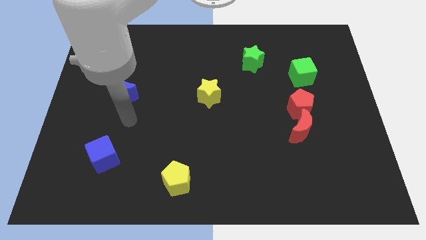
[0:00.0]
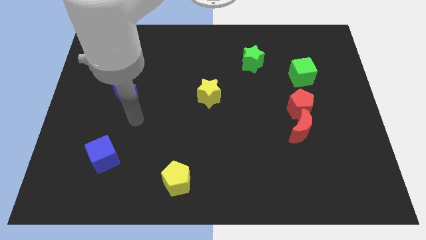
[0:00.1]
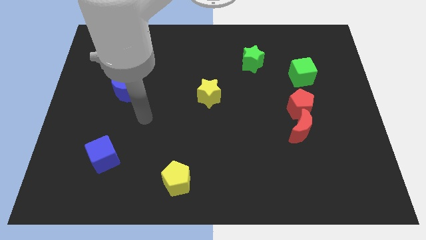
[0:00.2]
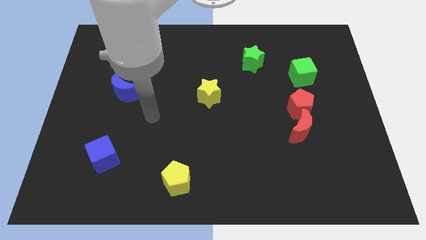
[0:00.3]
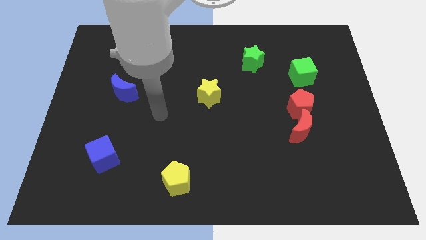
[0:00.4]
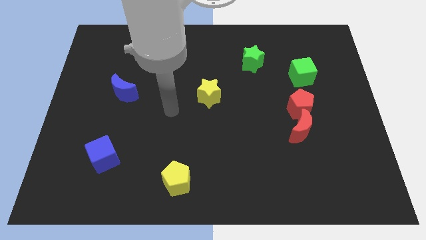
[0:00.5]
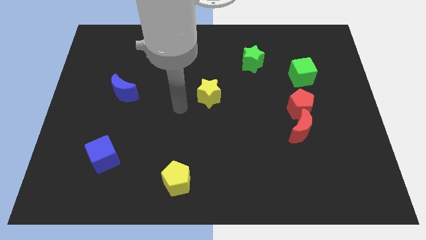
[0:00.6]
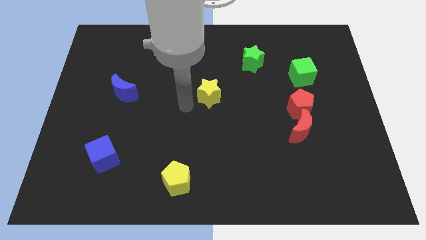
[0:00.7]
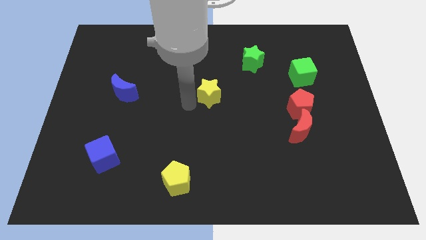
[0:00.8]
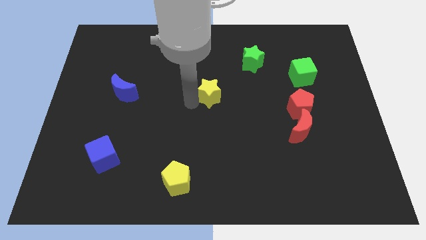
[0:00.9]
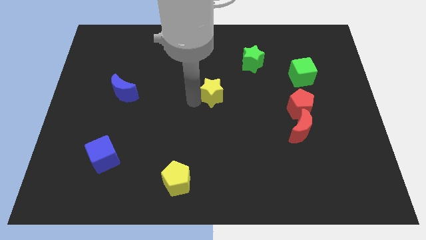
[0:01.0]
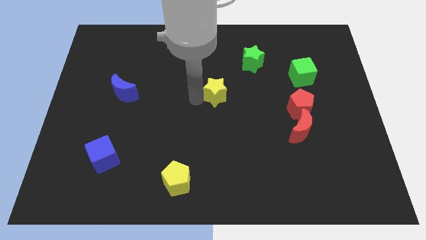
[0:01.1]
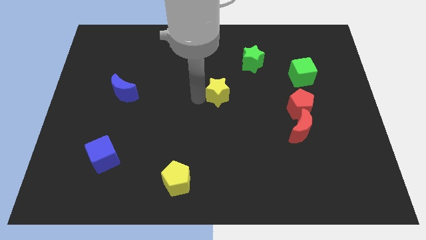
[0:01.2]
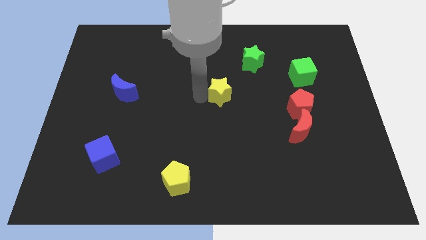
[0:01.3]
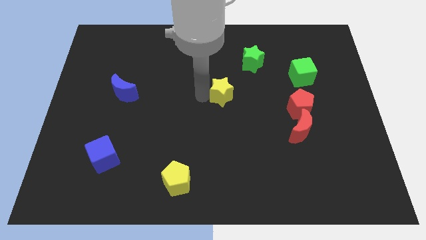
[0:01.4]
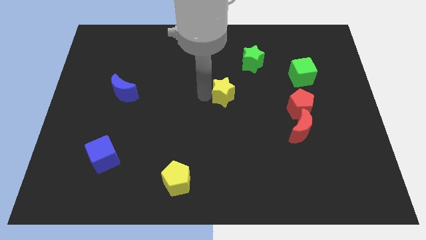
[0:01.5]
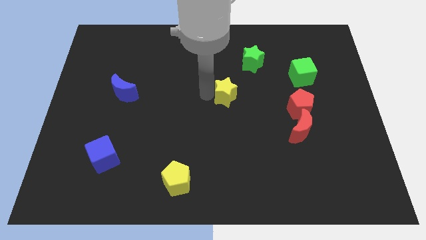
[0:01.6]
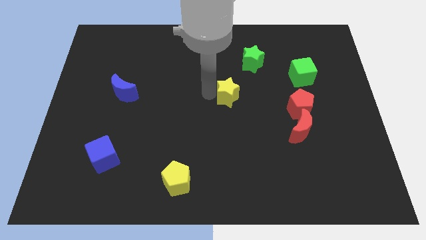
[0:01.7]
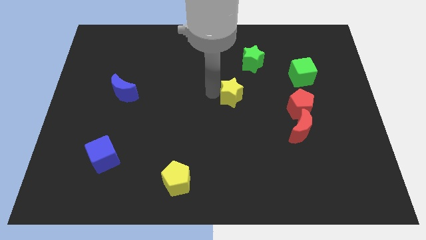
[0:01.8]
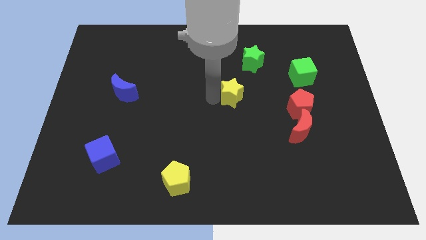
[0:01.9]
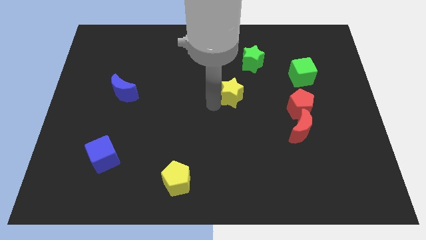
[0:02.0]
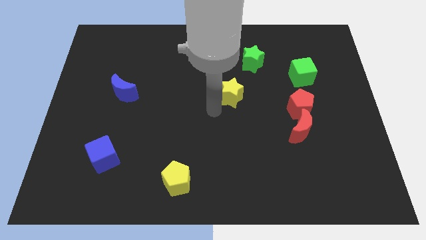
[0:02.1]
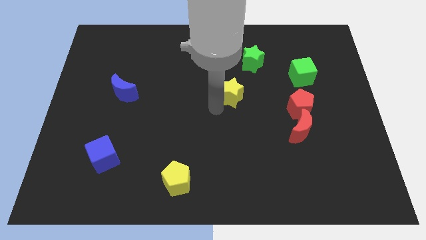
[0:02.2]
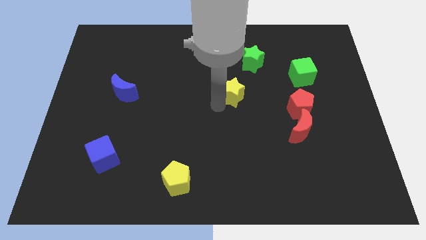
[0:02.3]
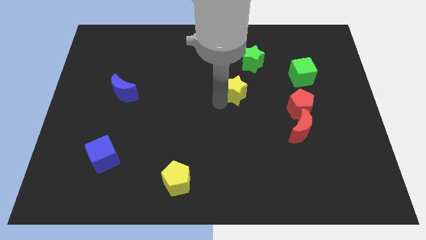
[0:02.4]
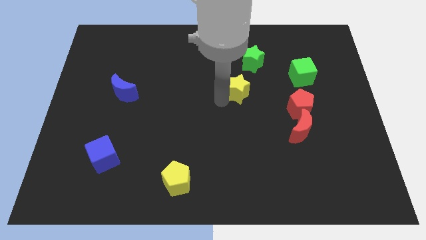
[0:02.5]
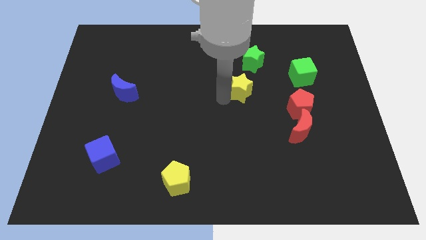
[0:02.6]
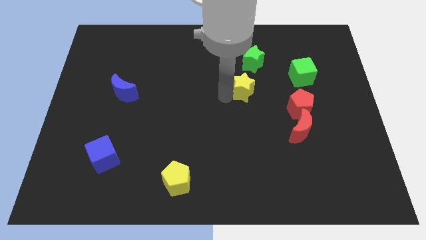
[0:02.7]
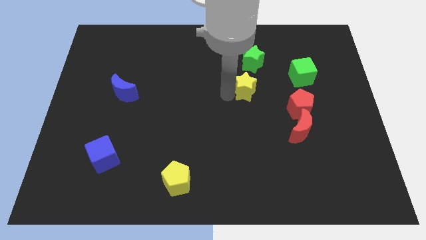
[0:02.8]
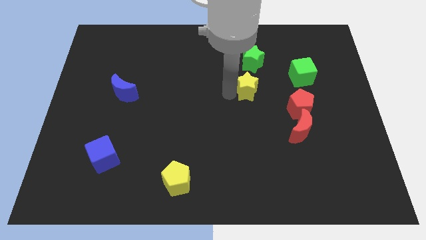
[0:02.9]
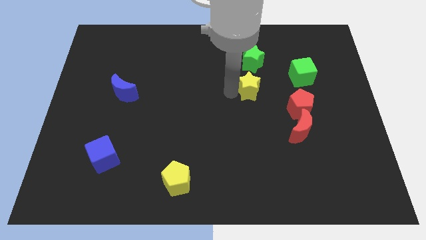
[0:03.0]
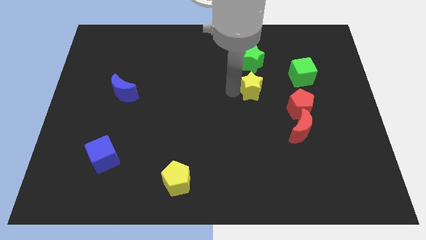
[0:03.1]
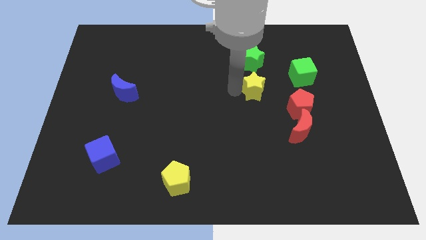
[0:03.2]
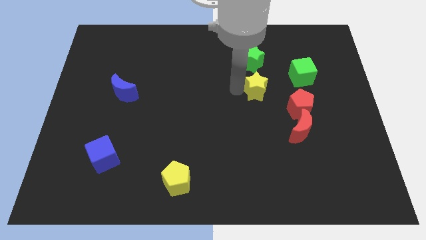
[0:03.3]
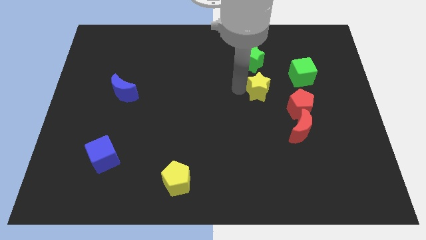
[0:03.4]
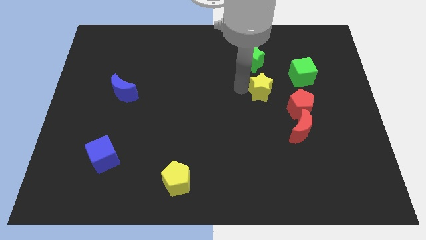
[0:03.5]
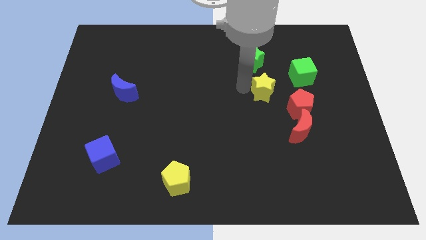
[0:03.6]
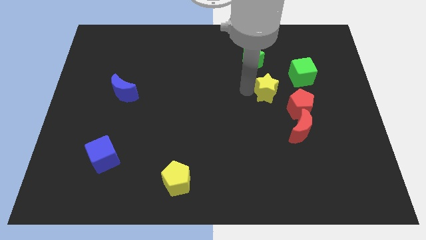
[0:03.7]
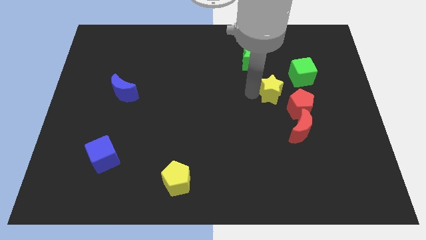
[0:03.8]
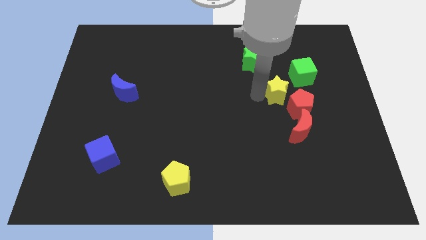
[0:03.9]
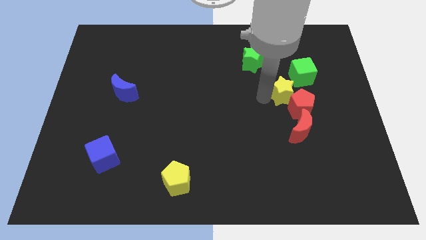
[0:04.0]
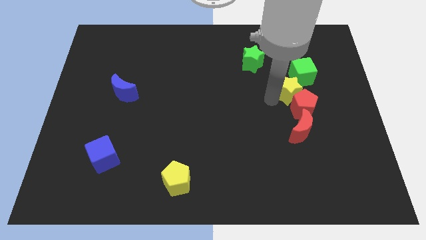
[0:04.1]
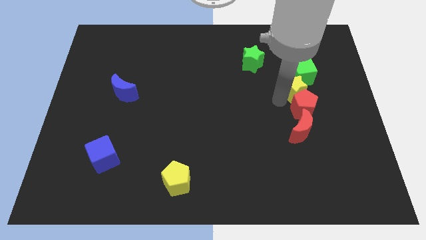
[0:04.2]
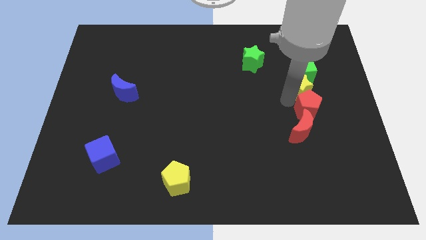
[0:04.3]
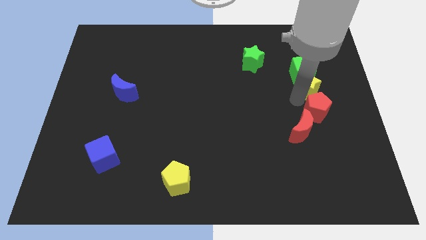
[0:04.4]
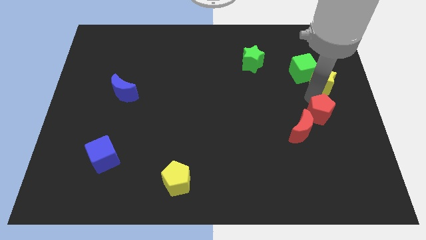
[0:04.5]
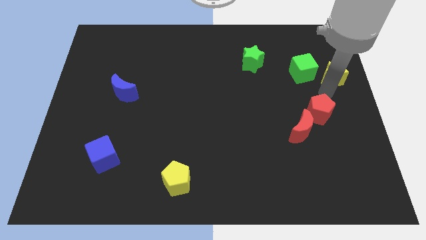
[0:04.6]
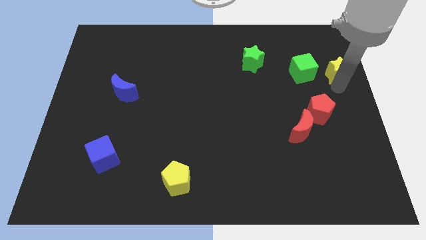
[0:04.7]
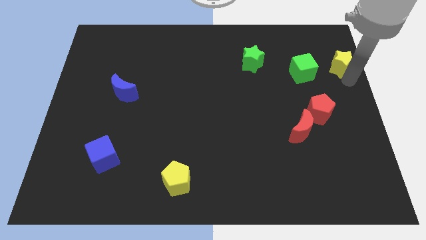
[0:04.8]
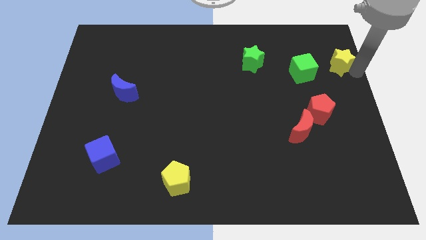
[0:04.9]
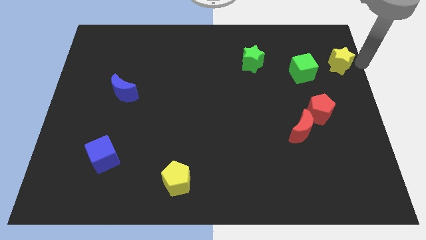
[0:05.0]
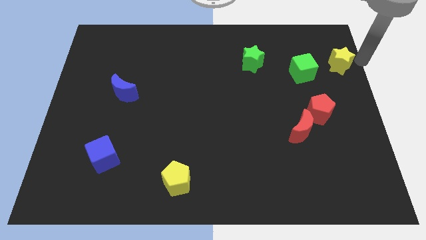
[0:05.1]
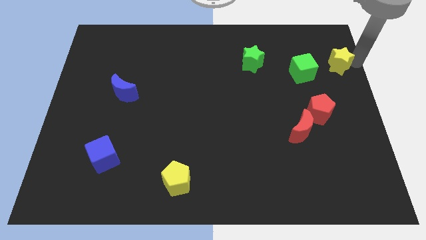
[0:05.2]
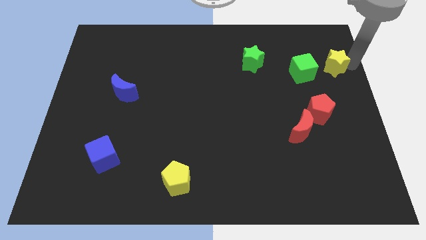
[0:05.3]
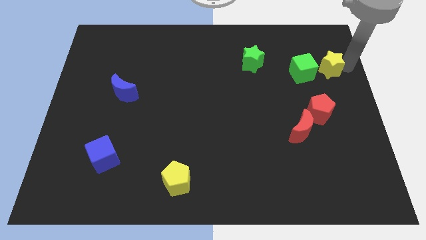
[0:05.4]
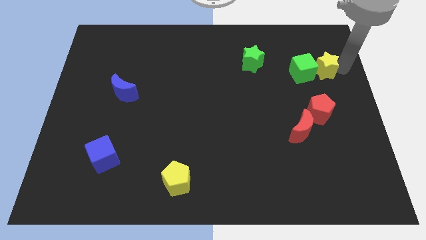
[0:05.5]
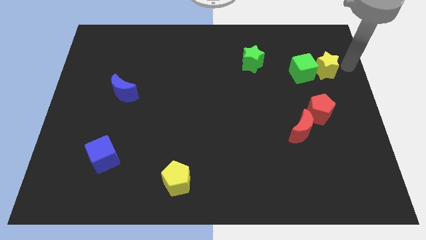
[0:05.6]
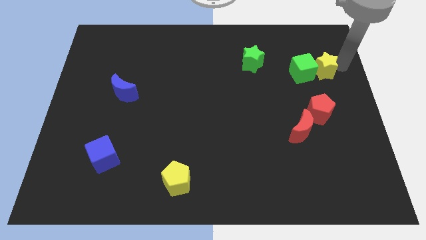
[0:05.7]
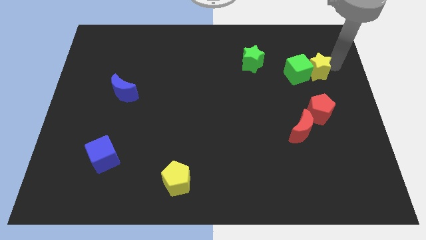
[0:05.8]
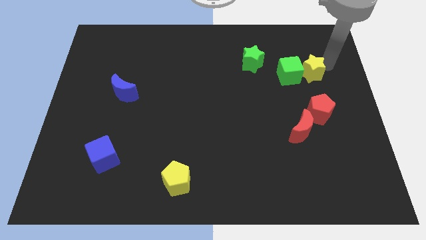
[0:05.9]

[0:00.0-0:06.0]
move the yellow star to the right side of the green star

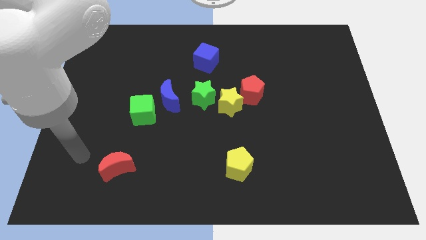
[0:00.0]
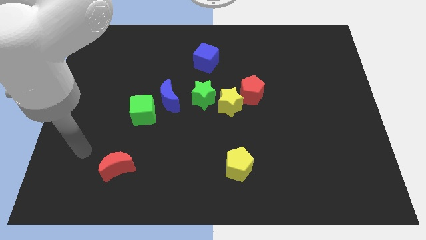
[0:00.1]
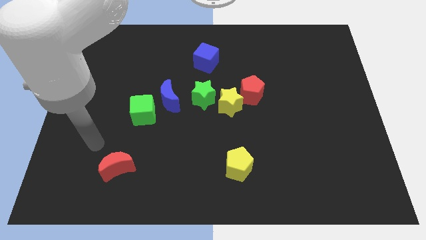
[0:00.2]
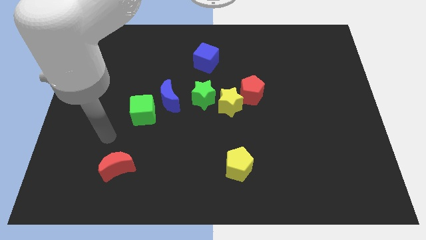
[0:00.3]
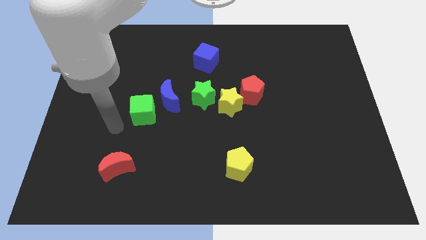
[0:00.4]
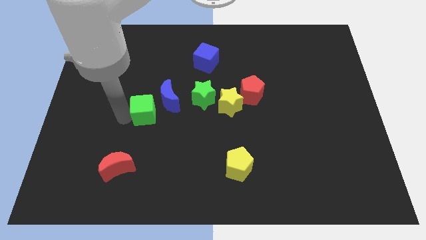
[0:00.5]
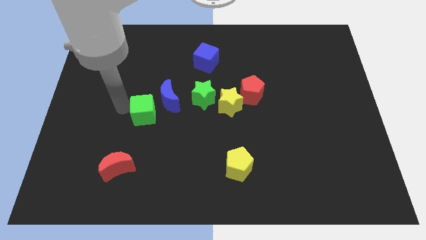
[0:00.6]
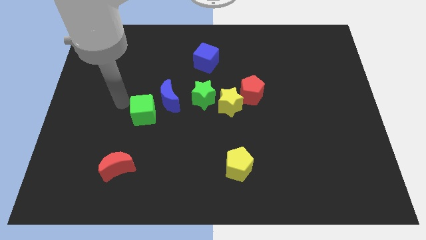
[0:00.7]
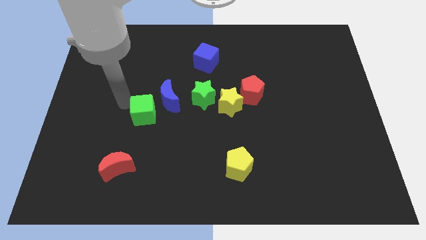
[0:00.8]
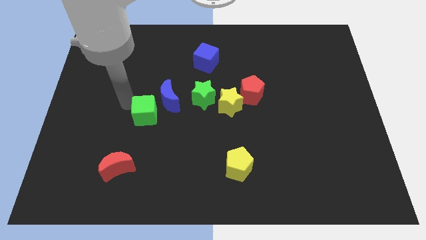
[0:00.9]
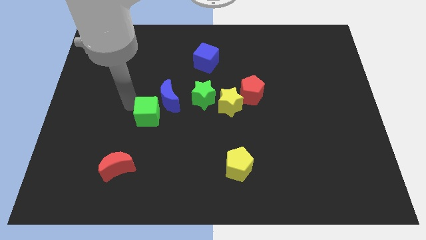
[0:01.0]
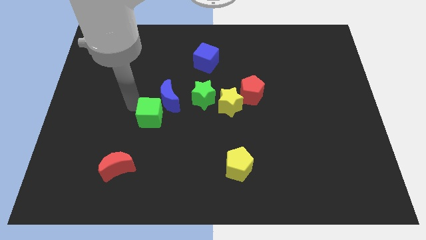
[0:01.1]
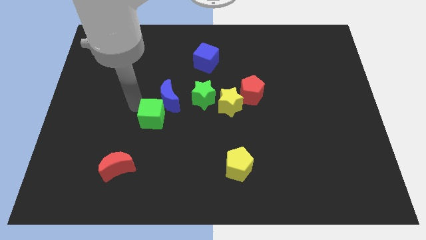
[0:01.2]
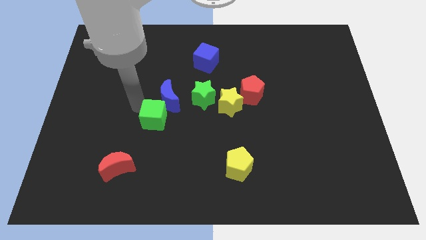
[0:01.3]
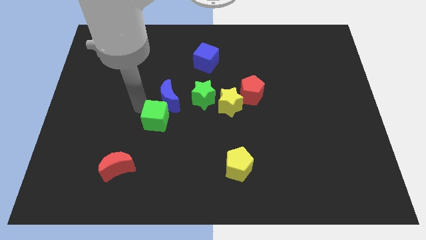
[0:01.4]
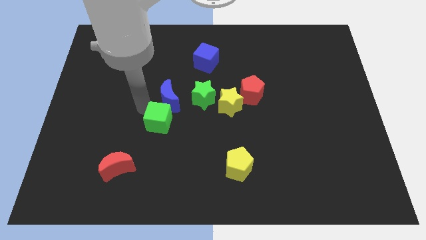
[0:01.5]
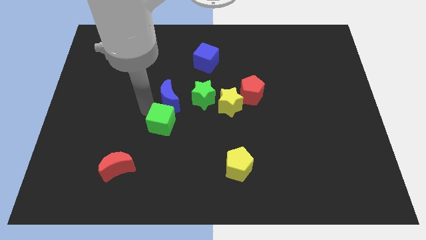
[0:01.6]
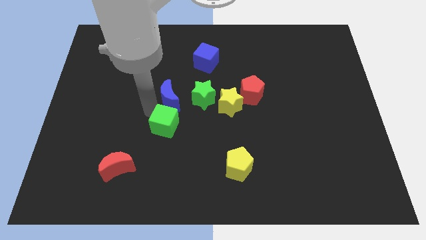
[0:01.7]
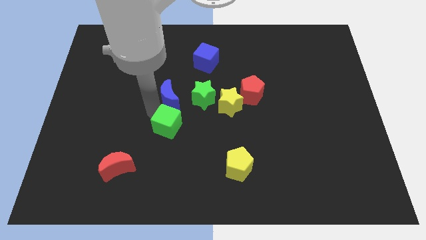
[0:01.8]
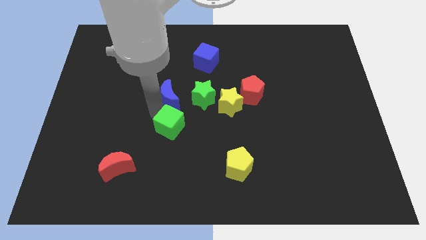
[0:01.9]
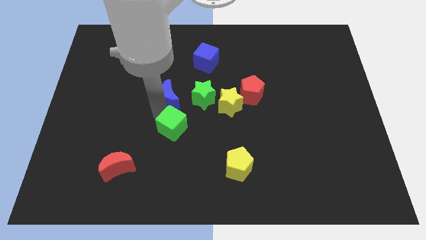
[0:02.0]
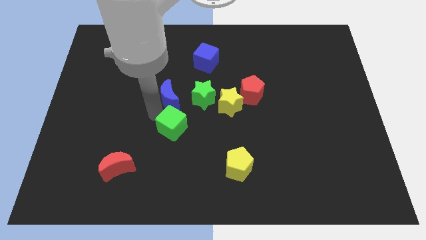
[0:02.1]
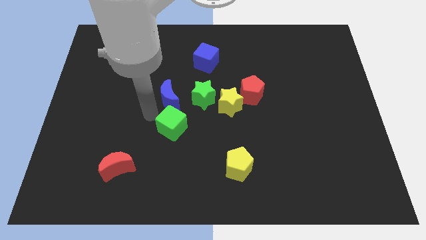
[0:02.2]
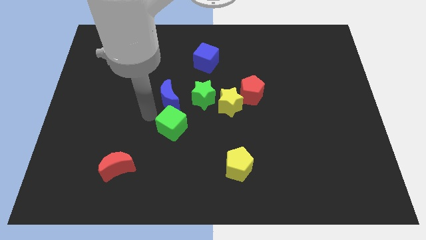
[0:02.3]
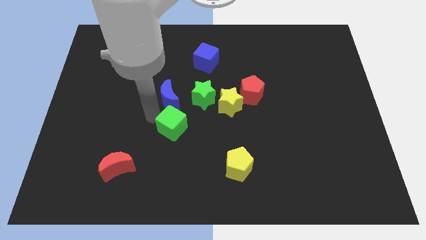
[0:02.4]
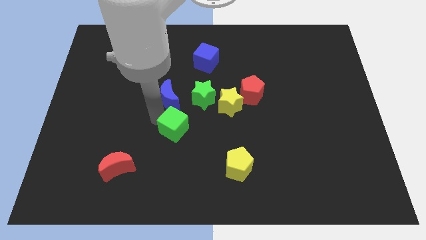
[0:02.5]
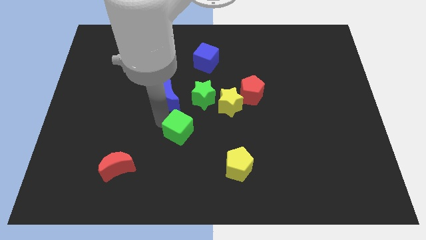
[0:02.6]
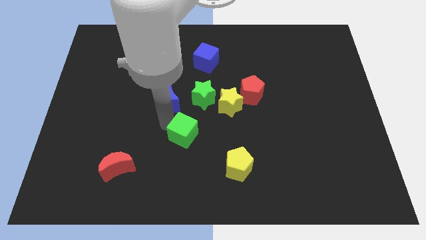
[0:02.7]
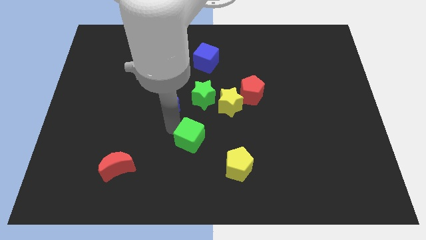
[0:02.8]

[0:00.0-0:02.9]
move the green cube to the top left of the yellow pentagon
